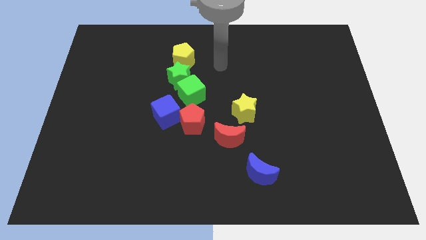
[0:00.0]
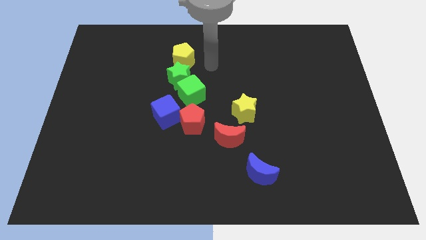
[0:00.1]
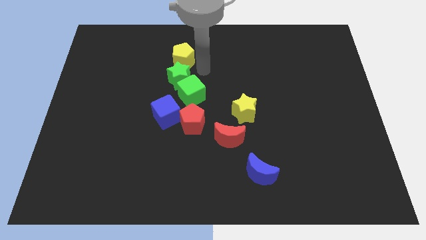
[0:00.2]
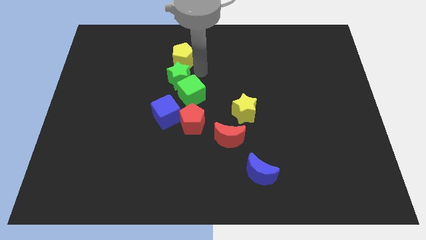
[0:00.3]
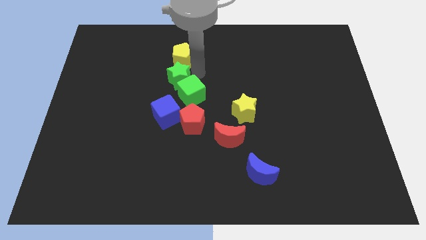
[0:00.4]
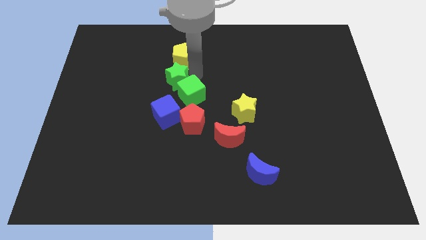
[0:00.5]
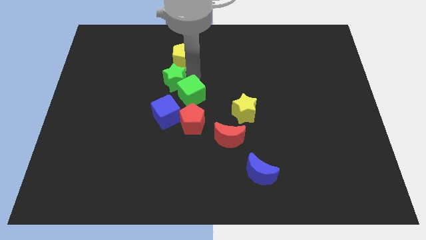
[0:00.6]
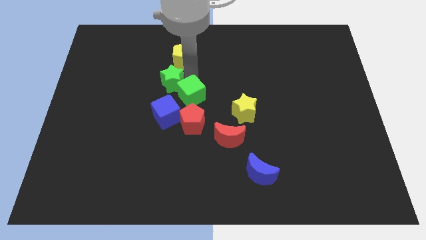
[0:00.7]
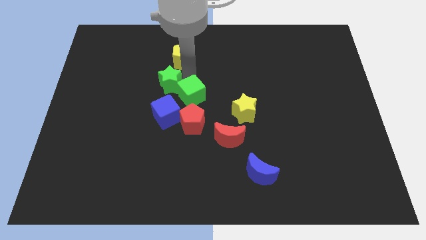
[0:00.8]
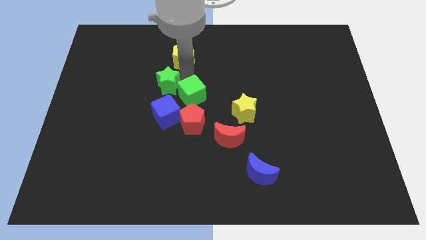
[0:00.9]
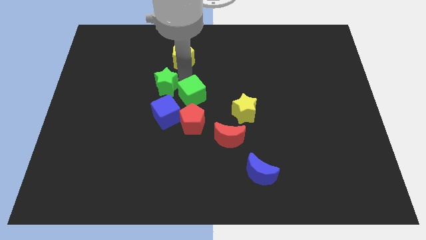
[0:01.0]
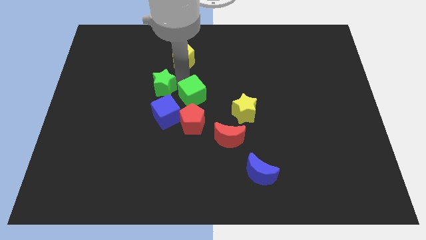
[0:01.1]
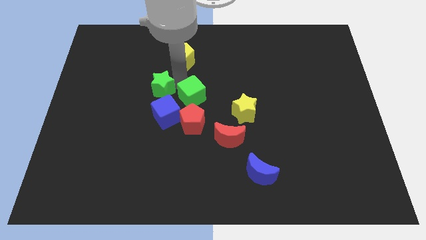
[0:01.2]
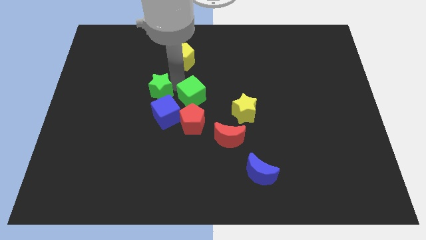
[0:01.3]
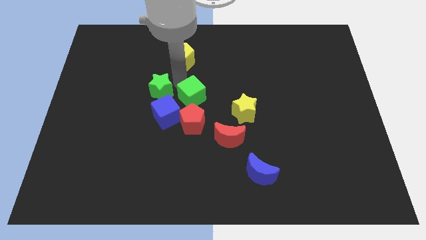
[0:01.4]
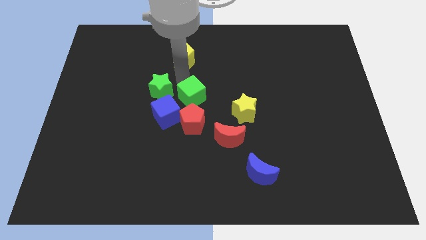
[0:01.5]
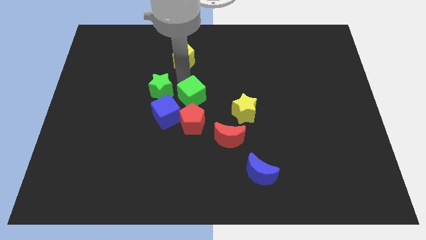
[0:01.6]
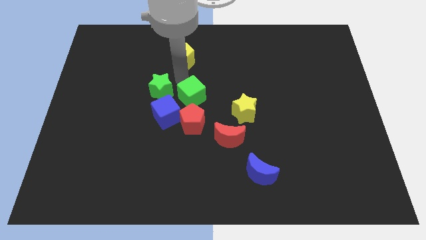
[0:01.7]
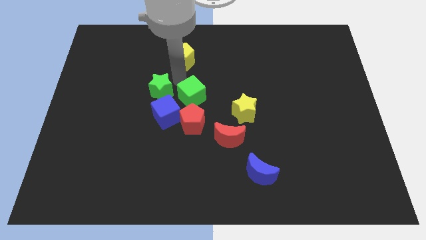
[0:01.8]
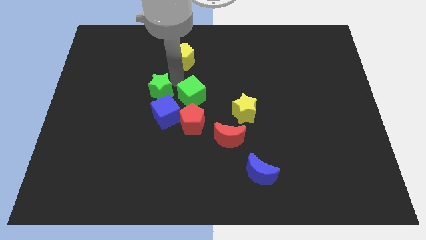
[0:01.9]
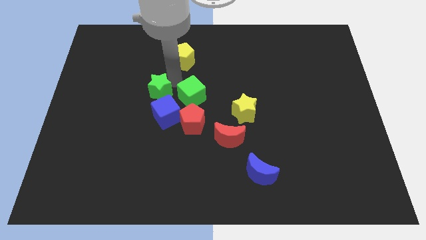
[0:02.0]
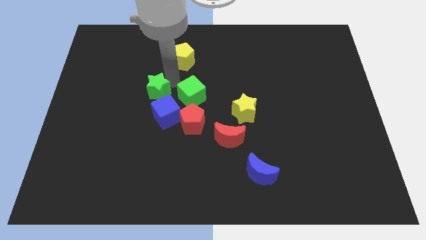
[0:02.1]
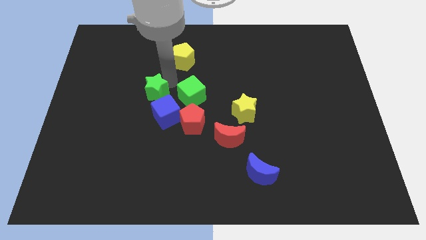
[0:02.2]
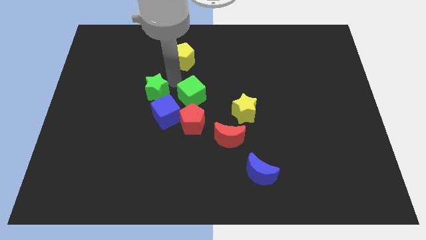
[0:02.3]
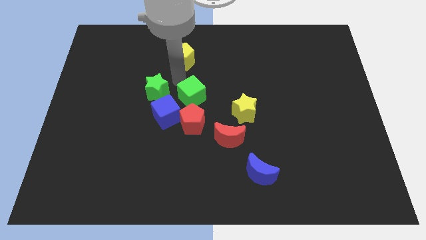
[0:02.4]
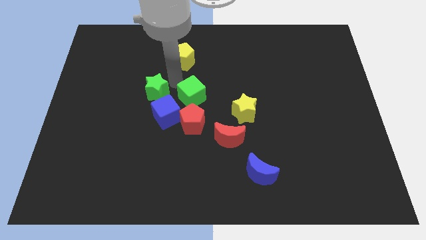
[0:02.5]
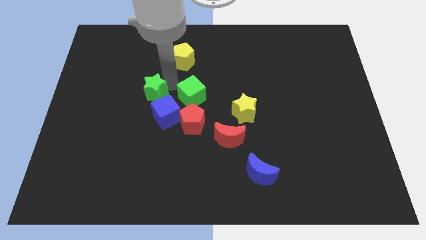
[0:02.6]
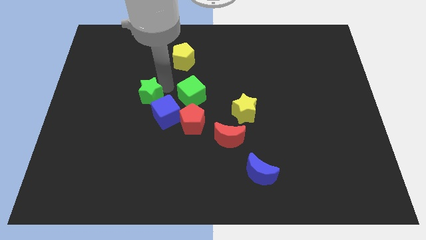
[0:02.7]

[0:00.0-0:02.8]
pull the green star apart from the green cube and yellow pentagon

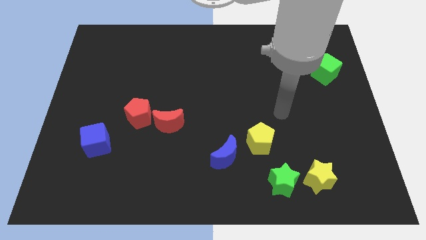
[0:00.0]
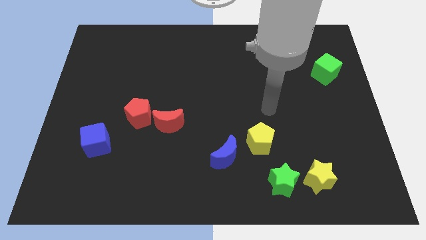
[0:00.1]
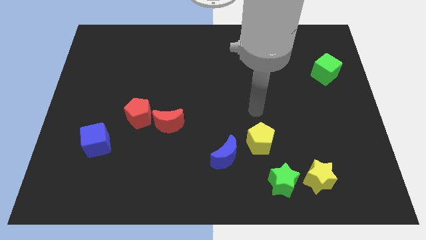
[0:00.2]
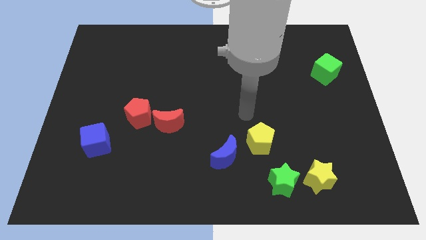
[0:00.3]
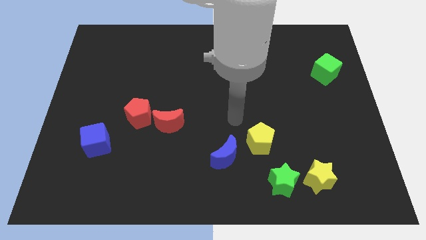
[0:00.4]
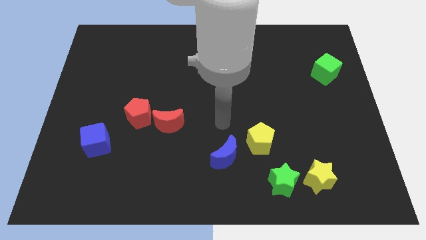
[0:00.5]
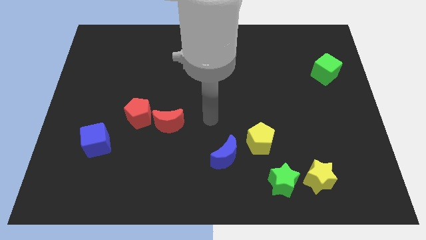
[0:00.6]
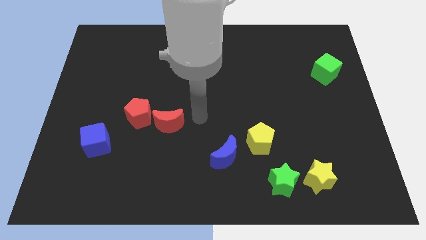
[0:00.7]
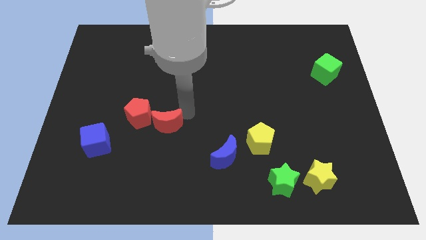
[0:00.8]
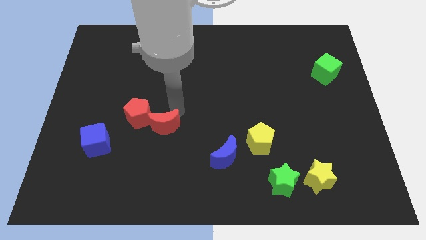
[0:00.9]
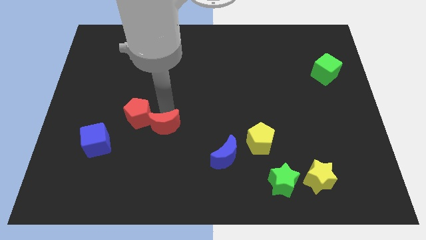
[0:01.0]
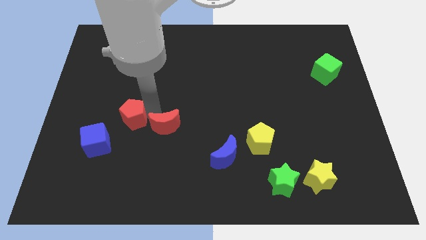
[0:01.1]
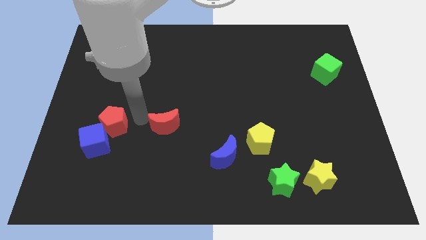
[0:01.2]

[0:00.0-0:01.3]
separate the red moon from the red pentagon

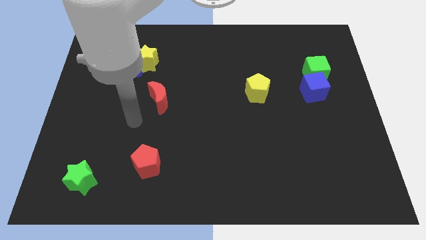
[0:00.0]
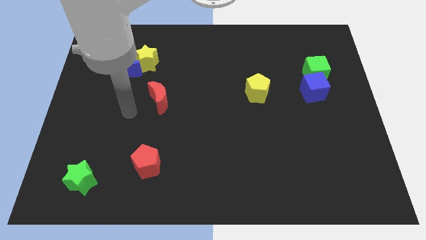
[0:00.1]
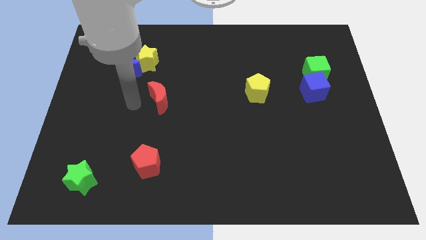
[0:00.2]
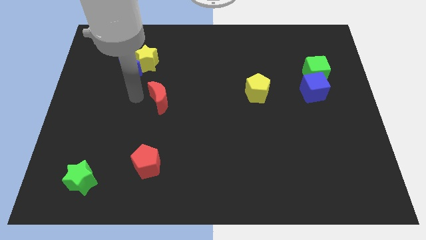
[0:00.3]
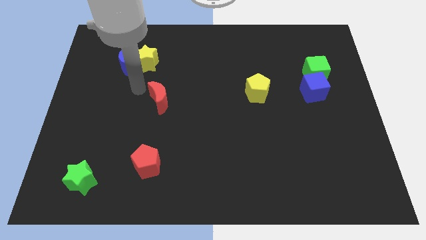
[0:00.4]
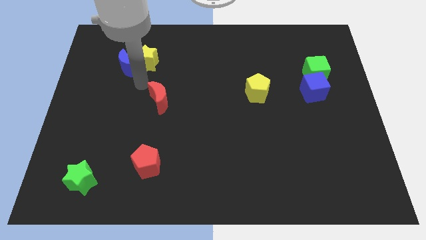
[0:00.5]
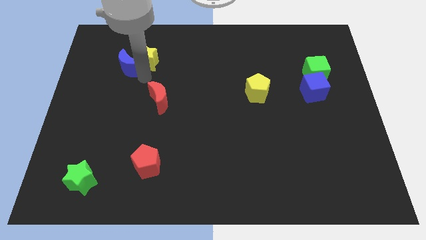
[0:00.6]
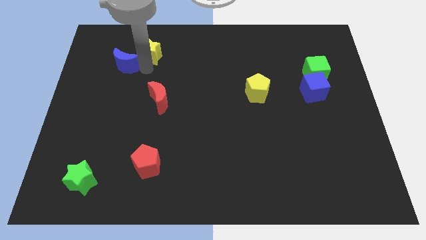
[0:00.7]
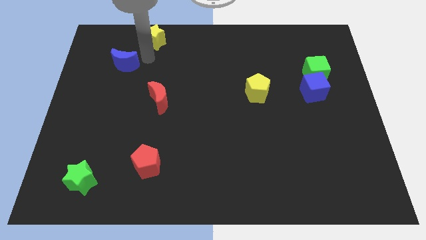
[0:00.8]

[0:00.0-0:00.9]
move the blue moon away from the yellow star

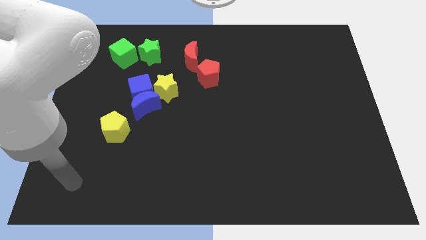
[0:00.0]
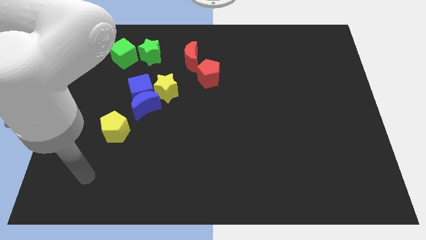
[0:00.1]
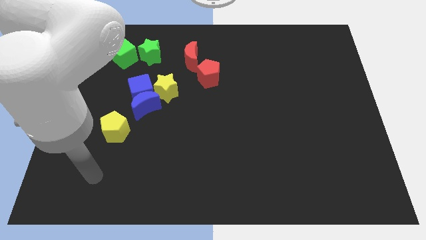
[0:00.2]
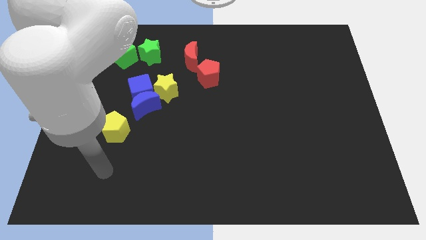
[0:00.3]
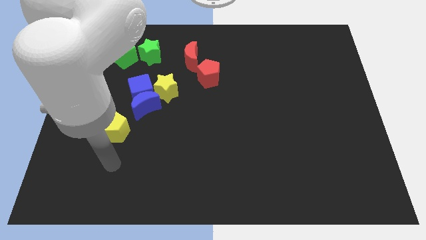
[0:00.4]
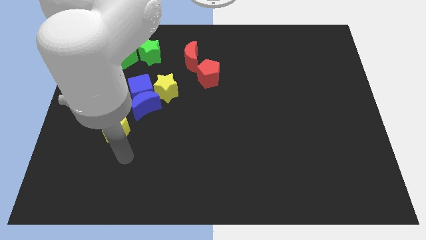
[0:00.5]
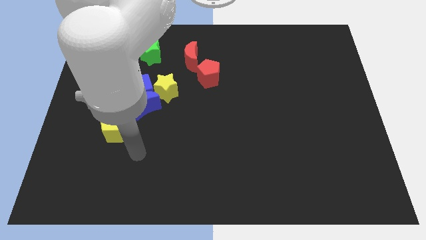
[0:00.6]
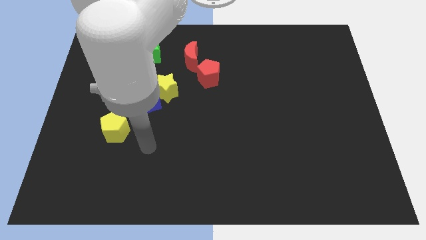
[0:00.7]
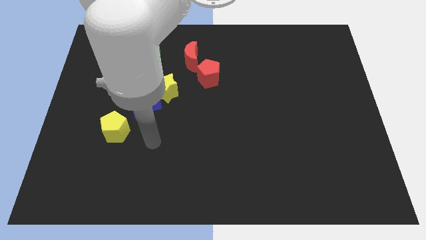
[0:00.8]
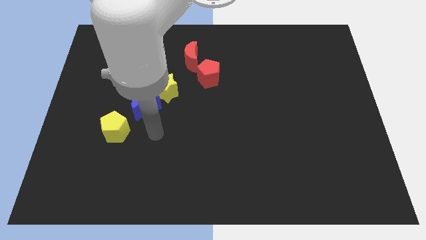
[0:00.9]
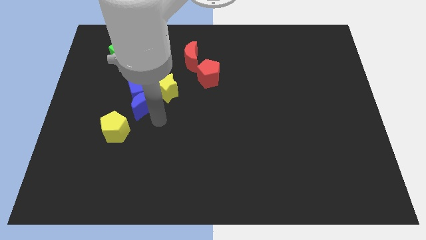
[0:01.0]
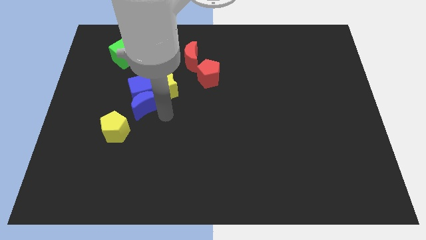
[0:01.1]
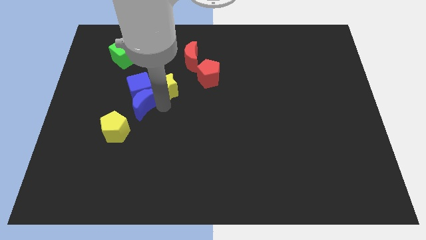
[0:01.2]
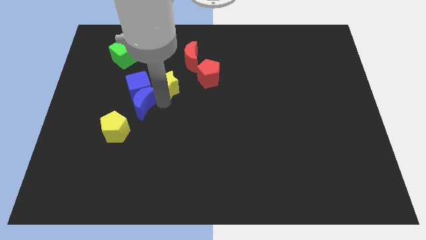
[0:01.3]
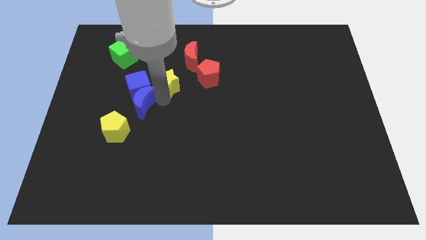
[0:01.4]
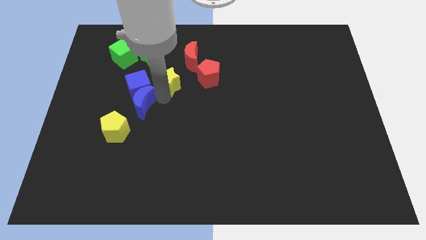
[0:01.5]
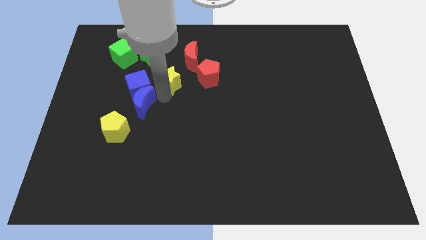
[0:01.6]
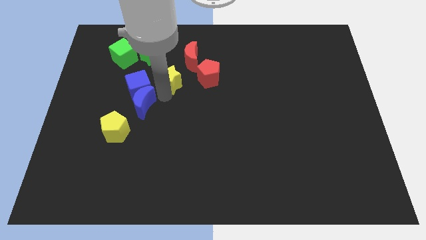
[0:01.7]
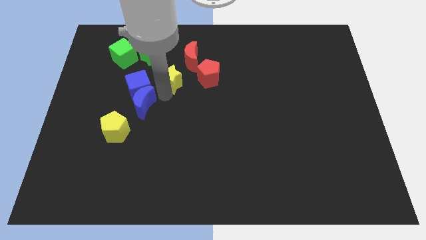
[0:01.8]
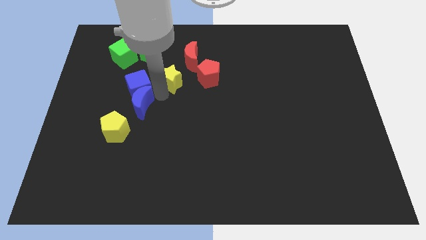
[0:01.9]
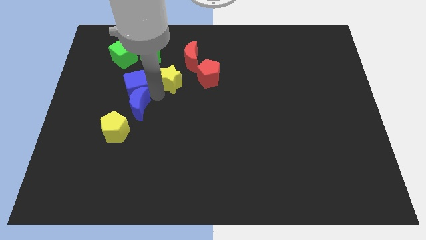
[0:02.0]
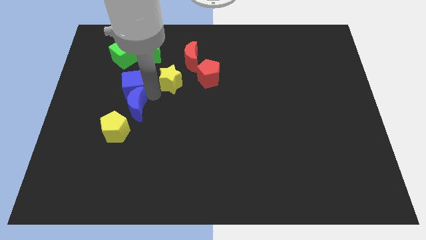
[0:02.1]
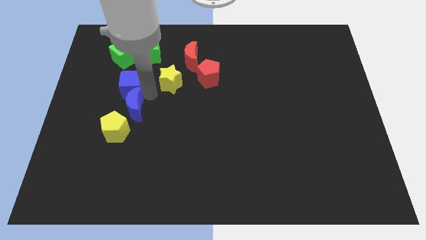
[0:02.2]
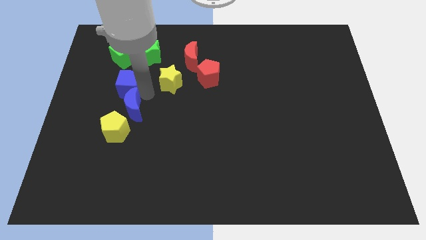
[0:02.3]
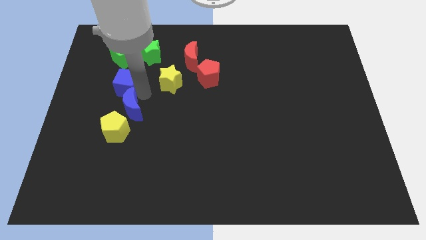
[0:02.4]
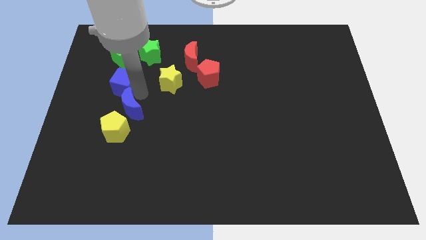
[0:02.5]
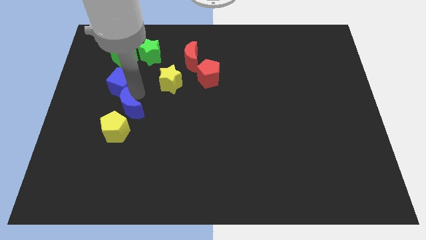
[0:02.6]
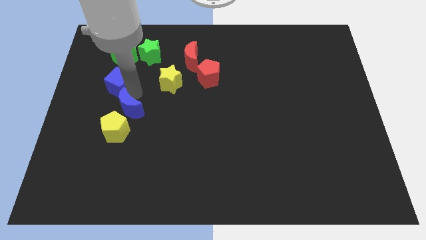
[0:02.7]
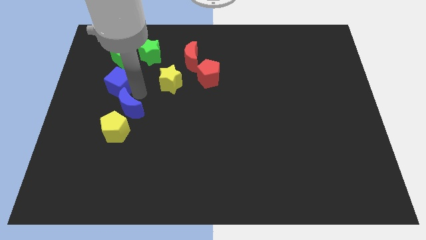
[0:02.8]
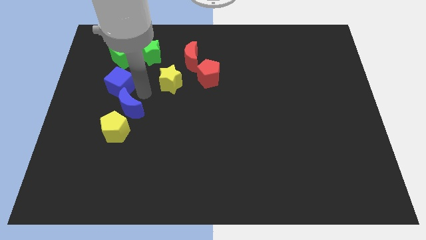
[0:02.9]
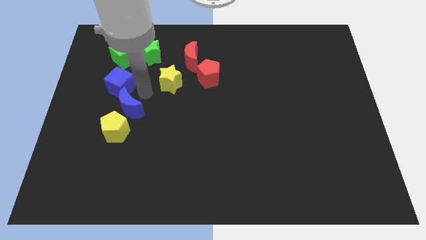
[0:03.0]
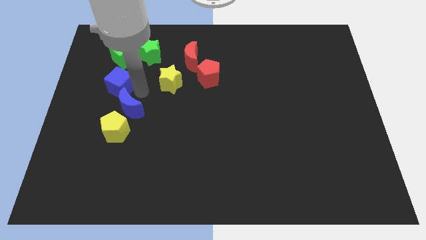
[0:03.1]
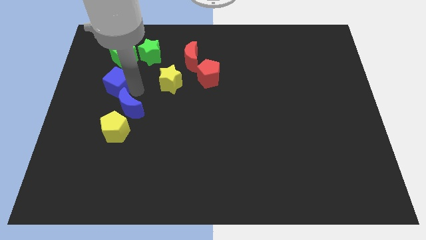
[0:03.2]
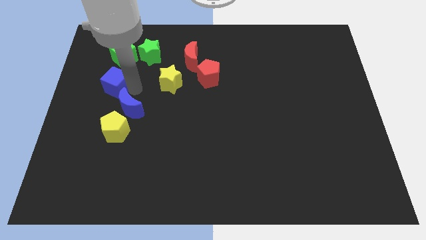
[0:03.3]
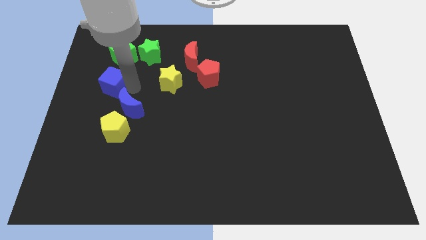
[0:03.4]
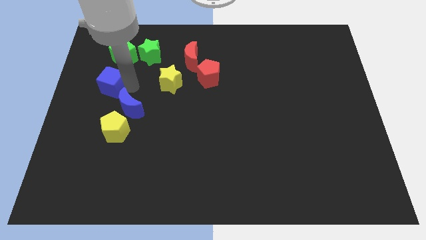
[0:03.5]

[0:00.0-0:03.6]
separate the blue cube from the blue moon and yellow star

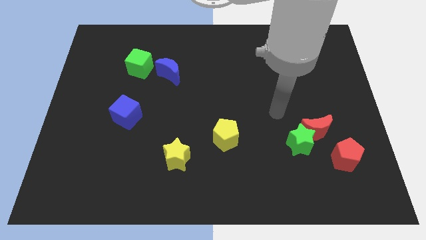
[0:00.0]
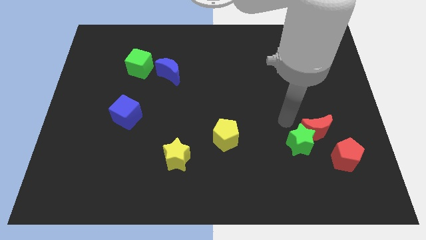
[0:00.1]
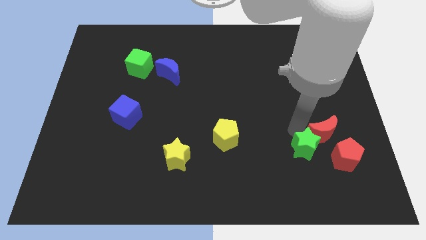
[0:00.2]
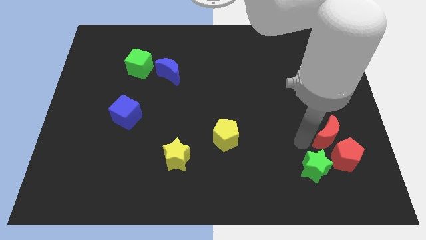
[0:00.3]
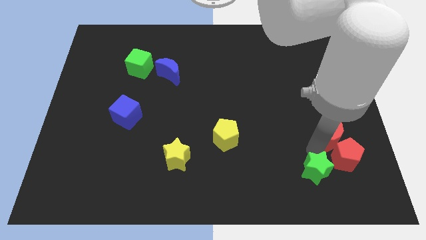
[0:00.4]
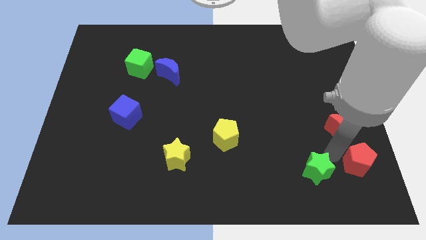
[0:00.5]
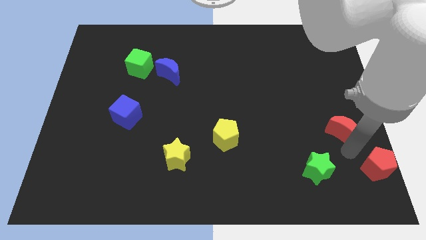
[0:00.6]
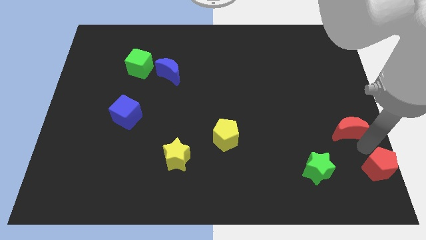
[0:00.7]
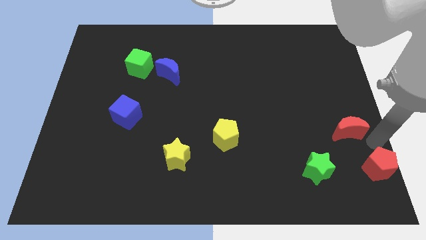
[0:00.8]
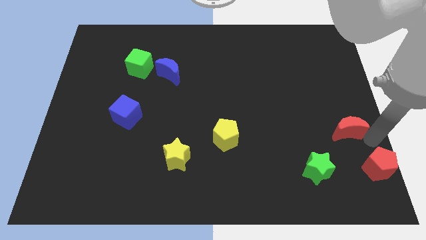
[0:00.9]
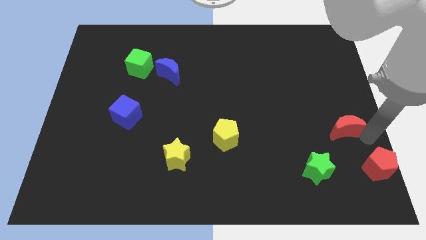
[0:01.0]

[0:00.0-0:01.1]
separate the red moon from the green star and red pentagon
